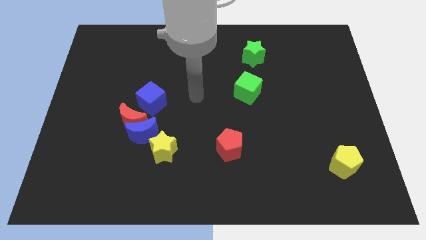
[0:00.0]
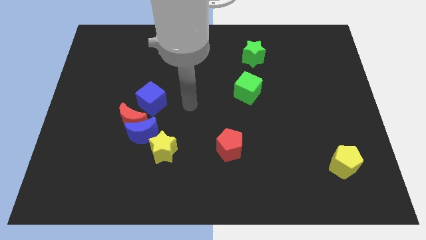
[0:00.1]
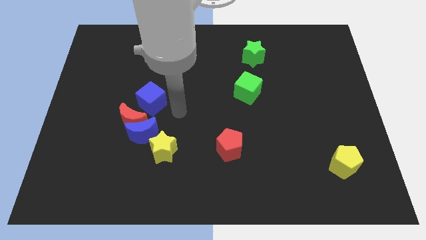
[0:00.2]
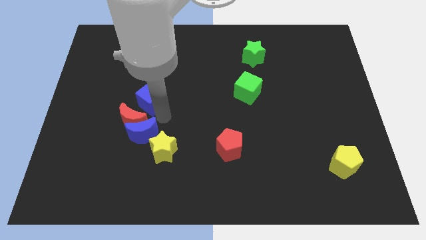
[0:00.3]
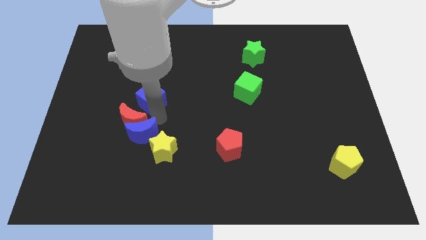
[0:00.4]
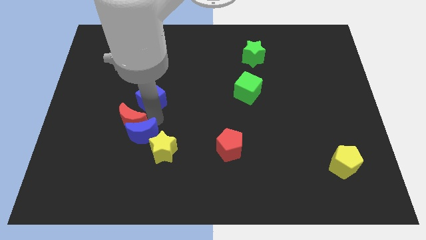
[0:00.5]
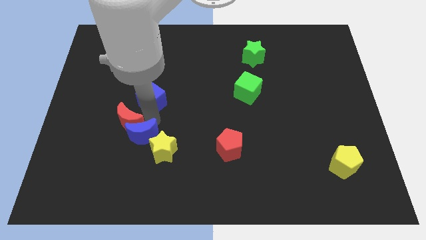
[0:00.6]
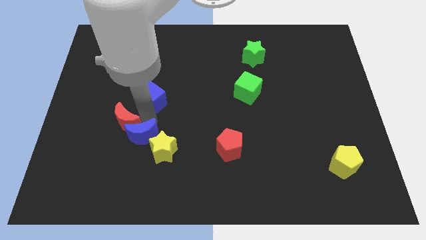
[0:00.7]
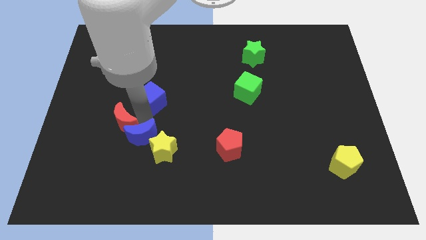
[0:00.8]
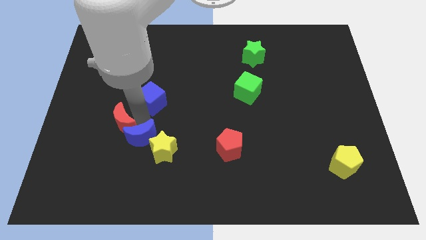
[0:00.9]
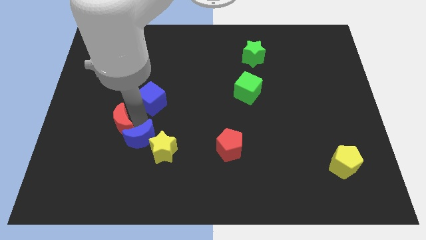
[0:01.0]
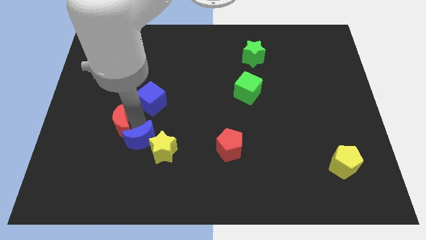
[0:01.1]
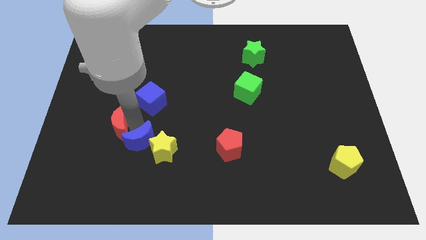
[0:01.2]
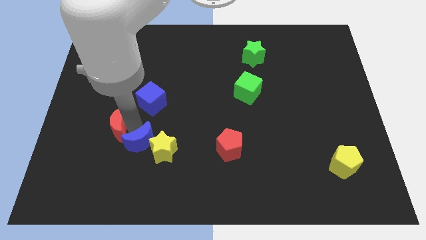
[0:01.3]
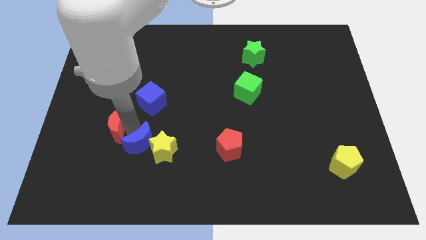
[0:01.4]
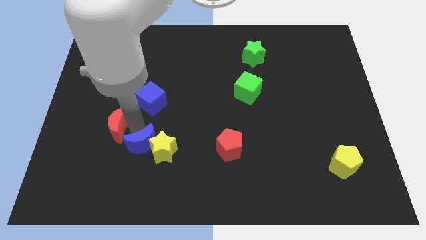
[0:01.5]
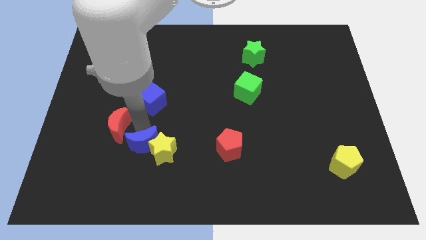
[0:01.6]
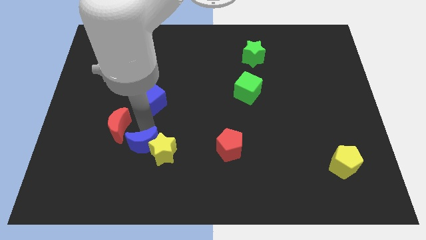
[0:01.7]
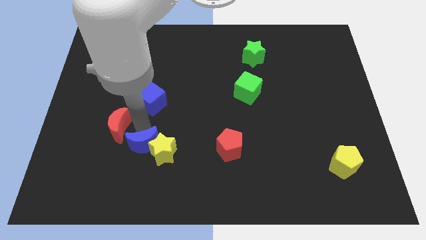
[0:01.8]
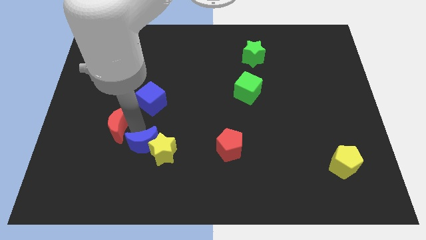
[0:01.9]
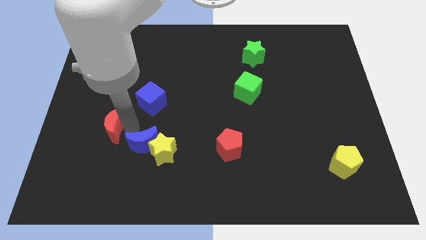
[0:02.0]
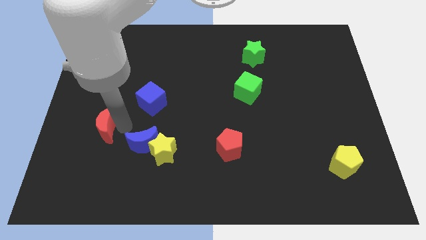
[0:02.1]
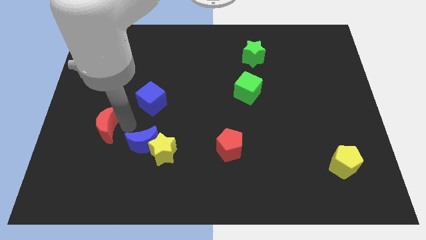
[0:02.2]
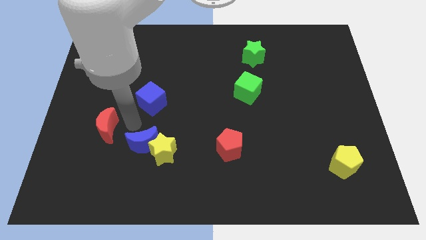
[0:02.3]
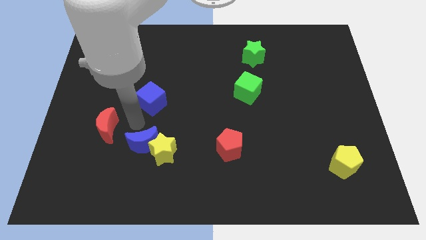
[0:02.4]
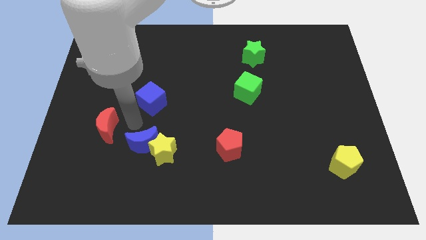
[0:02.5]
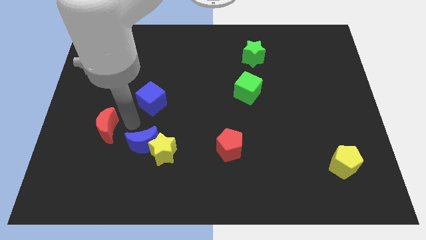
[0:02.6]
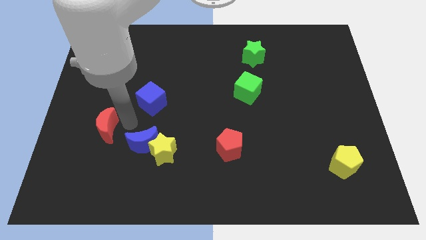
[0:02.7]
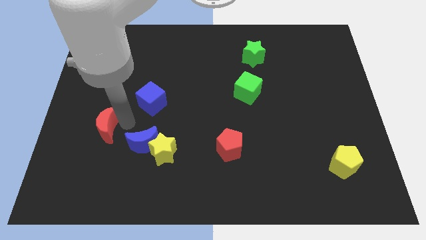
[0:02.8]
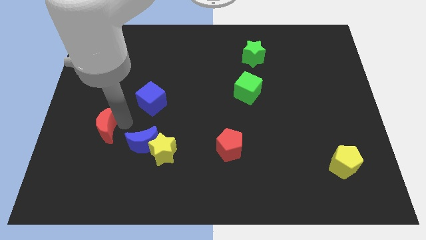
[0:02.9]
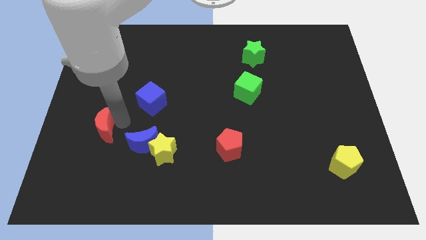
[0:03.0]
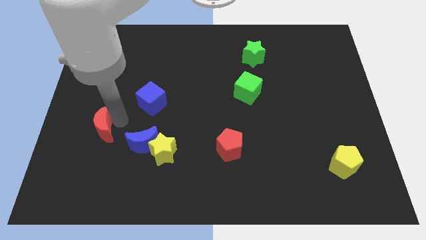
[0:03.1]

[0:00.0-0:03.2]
pull the red moon apart from the blue moon and blue cube

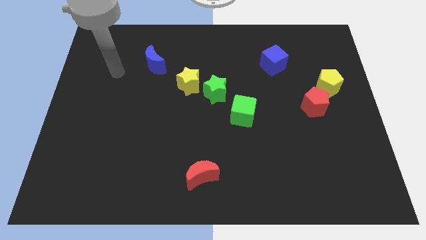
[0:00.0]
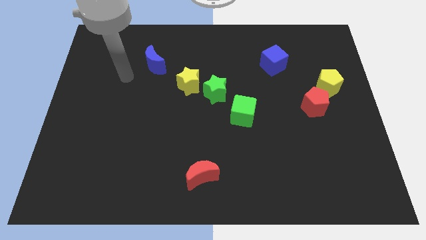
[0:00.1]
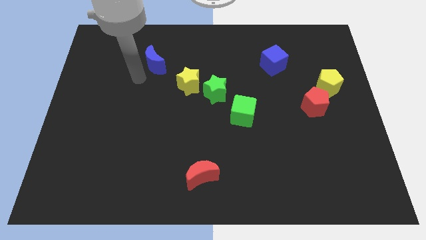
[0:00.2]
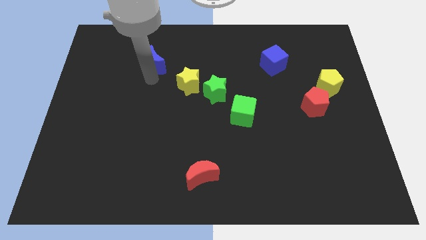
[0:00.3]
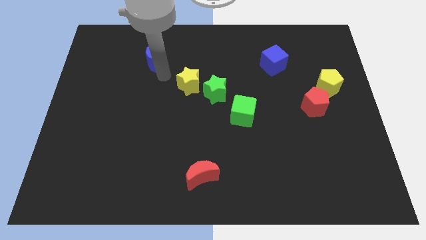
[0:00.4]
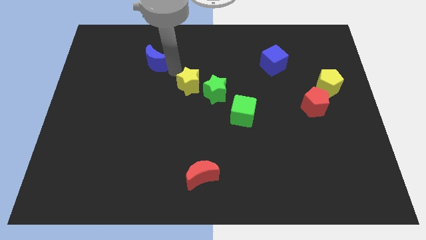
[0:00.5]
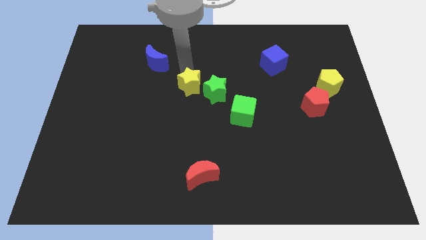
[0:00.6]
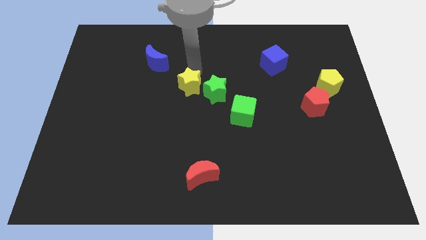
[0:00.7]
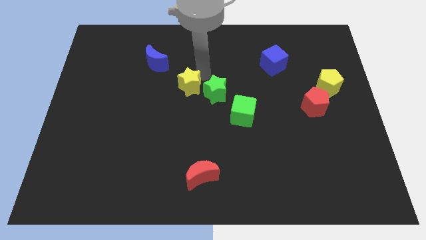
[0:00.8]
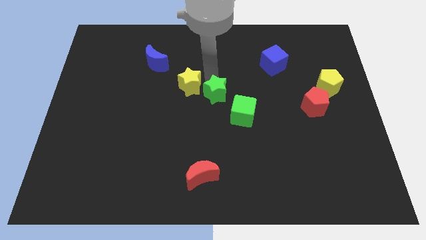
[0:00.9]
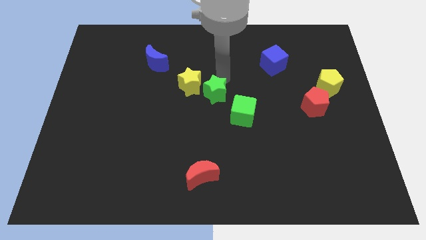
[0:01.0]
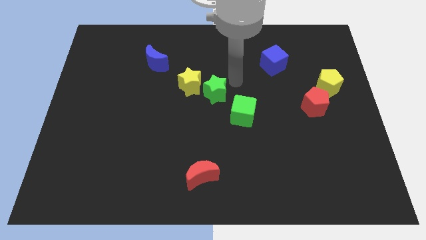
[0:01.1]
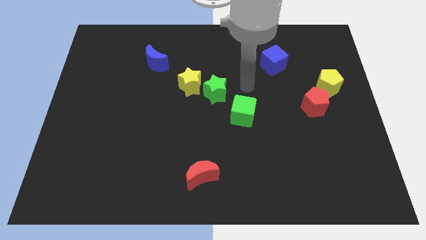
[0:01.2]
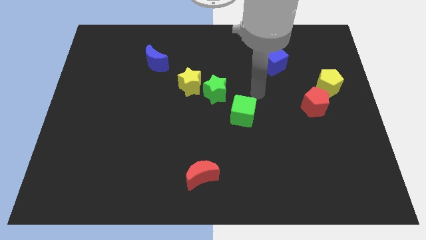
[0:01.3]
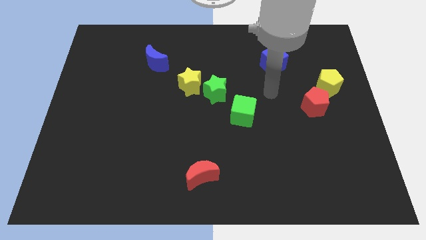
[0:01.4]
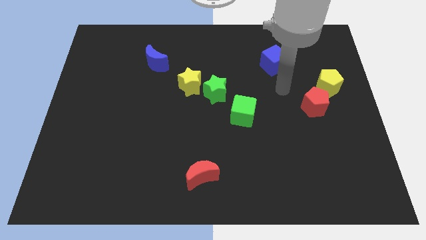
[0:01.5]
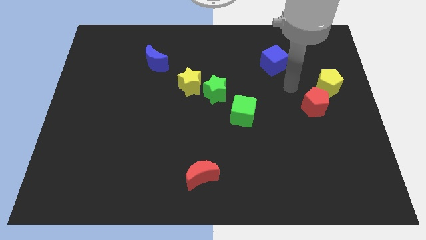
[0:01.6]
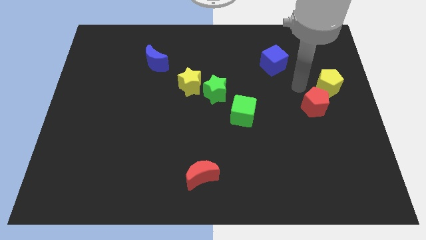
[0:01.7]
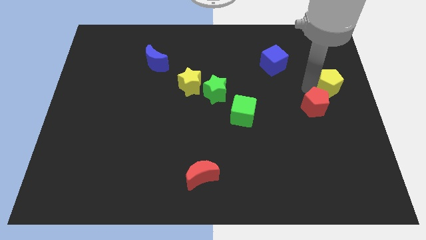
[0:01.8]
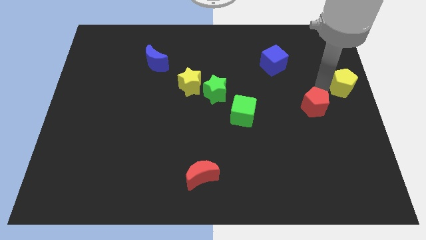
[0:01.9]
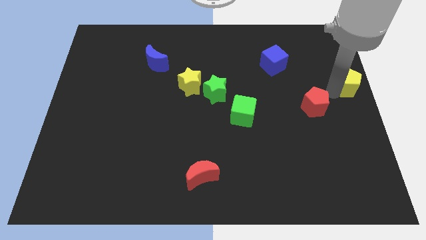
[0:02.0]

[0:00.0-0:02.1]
pull the red pentagon apart from the yellow pentagon

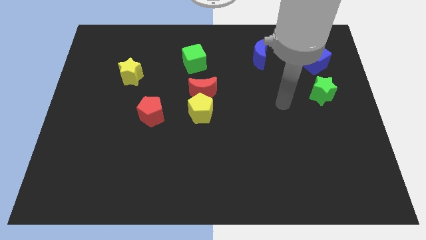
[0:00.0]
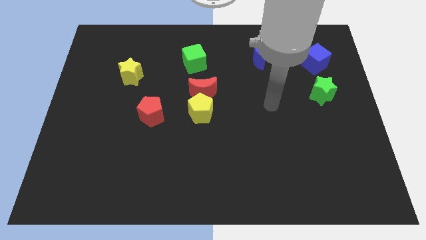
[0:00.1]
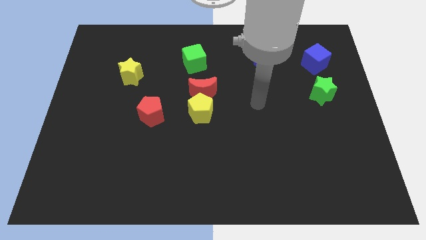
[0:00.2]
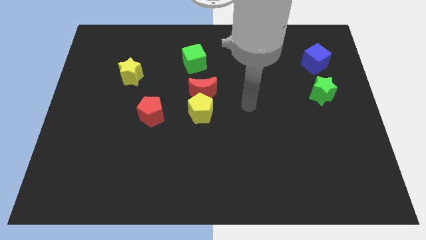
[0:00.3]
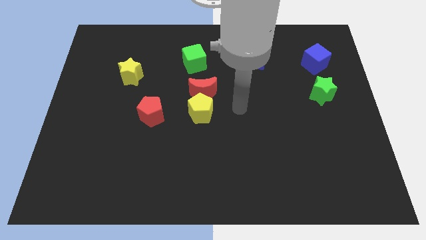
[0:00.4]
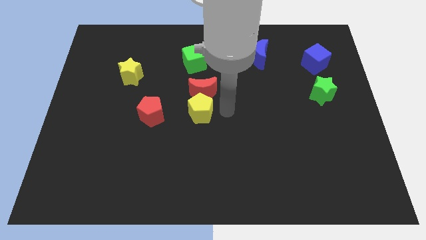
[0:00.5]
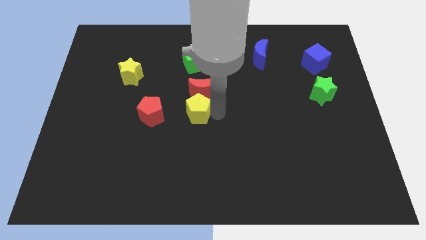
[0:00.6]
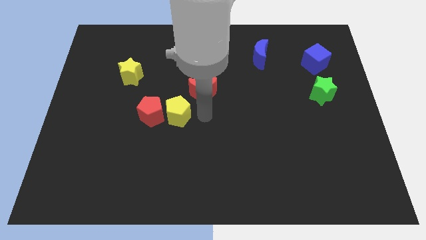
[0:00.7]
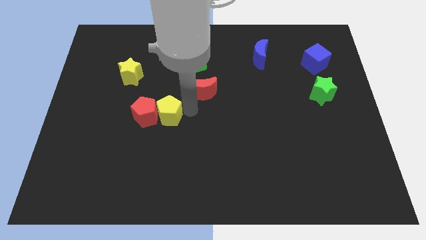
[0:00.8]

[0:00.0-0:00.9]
pull the red moon apart from the yellow pentagon

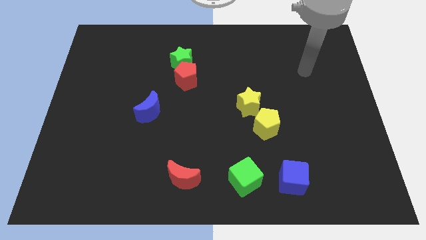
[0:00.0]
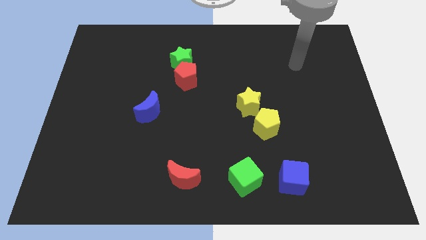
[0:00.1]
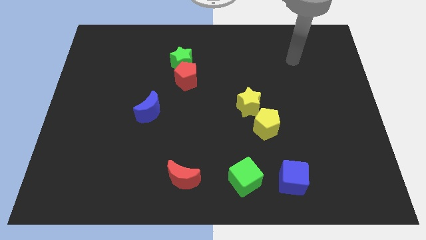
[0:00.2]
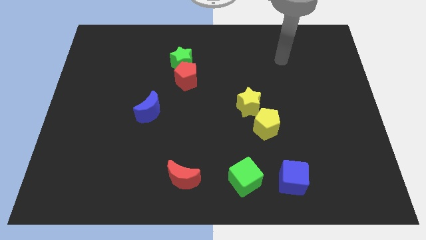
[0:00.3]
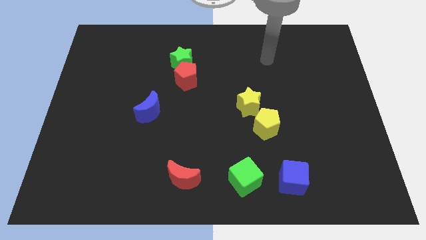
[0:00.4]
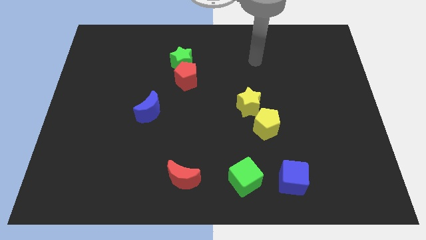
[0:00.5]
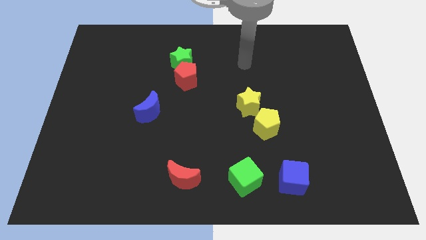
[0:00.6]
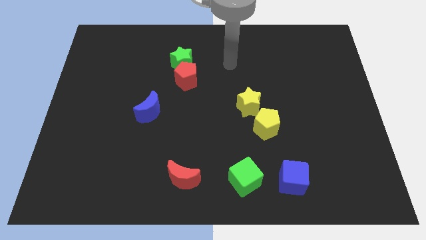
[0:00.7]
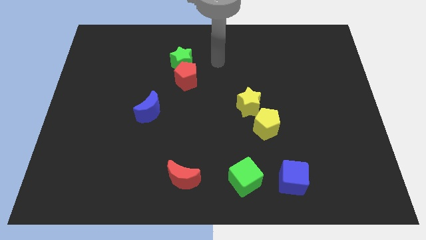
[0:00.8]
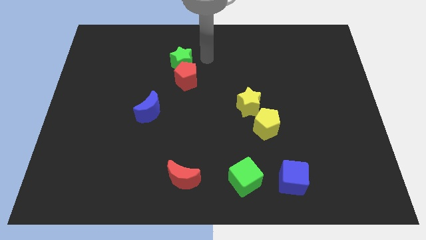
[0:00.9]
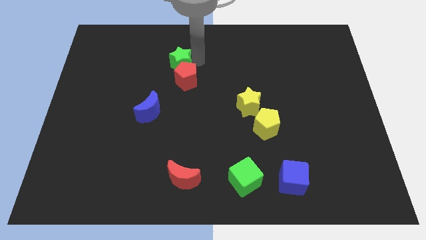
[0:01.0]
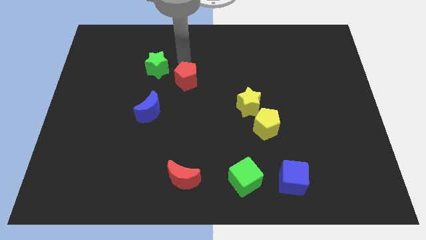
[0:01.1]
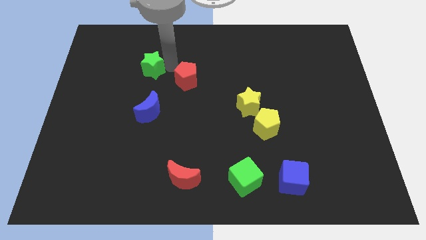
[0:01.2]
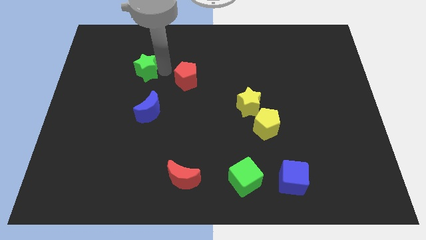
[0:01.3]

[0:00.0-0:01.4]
move the red pentagon away from the green star

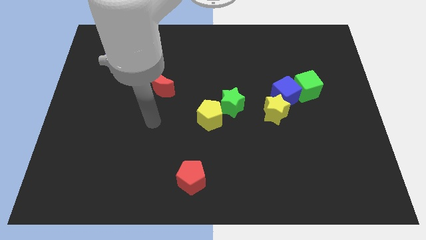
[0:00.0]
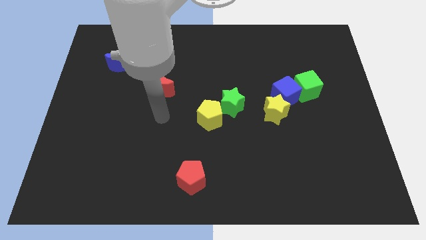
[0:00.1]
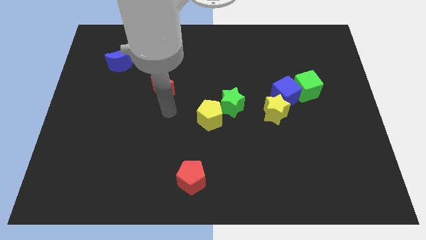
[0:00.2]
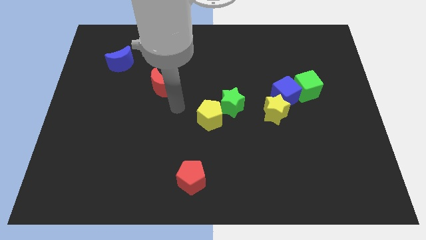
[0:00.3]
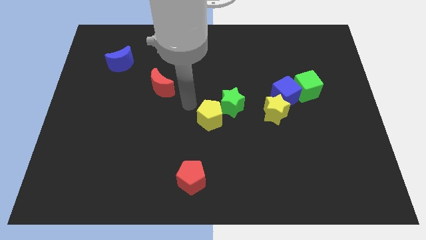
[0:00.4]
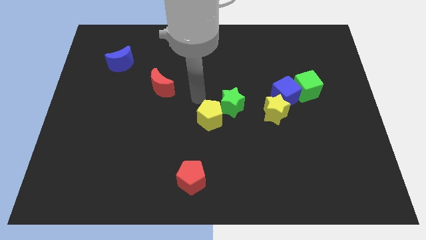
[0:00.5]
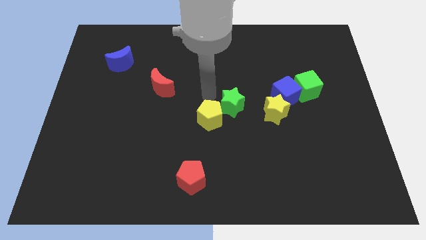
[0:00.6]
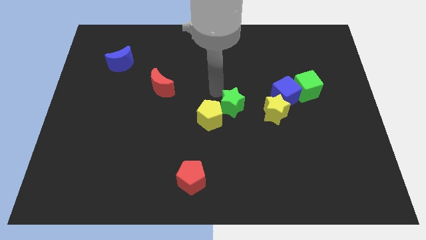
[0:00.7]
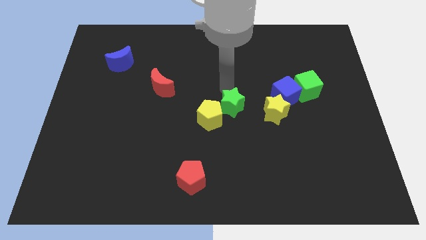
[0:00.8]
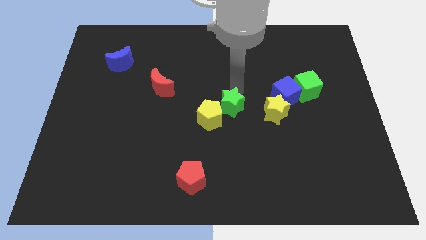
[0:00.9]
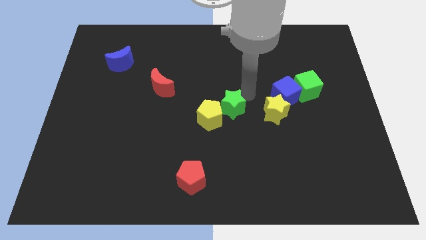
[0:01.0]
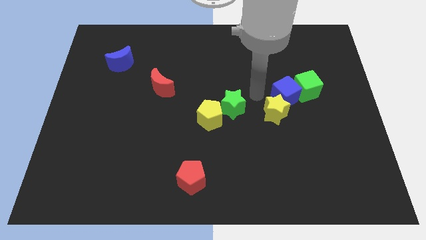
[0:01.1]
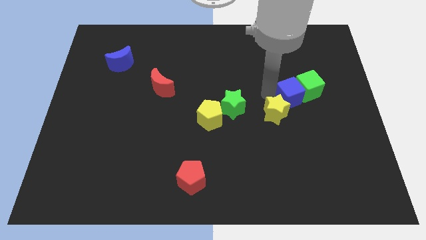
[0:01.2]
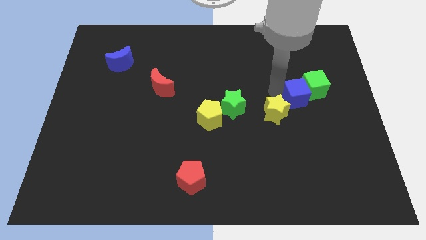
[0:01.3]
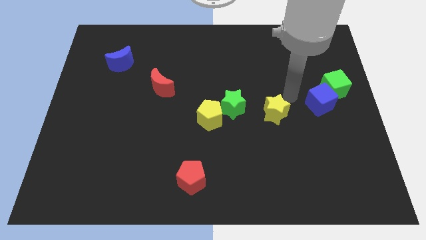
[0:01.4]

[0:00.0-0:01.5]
separate the yellow star from the blue cube

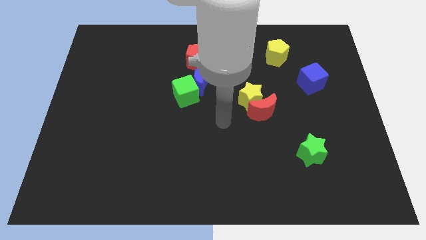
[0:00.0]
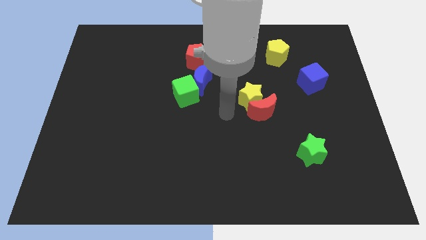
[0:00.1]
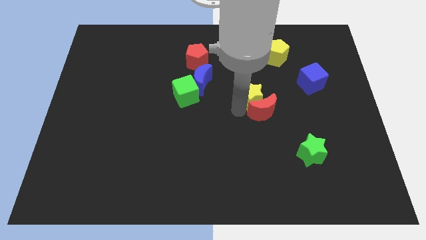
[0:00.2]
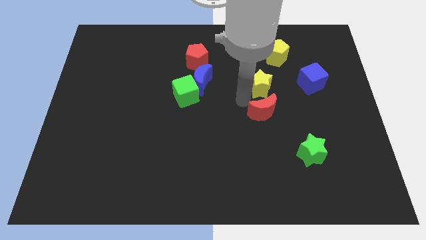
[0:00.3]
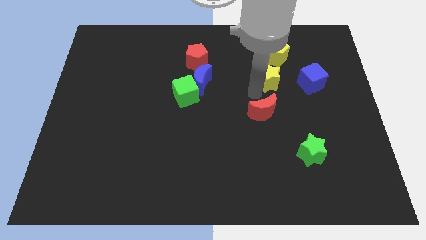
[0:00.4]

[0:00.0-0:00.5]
separate the red moon from the yellow star
